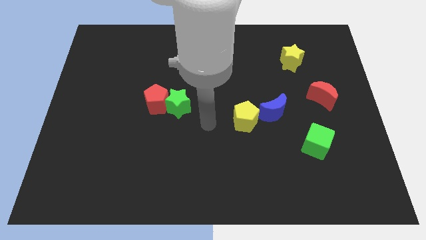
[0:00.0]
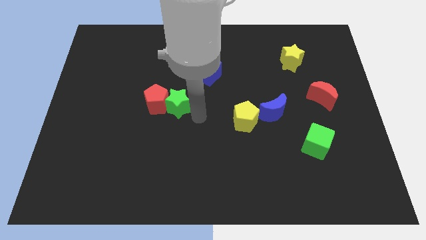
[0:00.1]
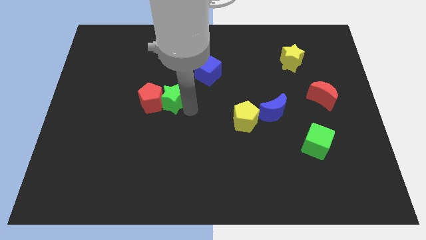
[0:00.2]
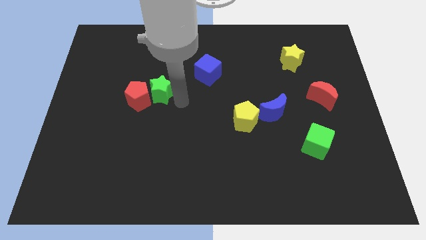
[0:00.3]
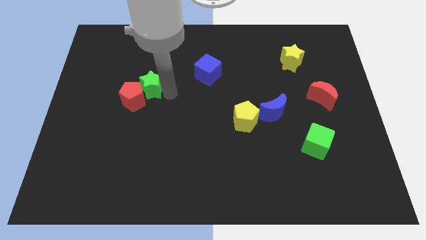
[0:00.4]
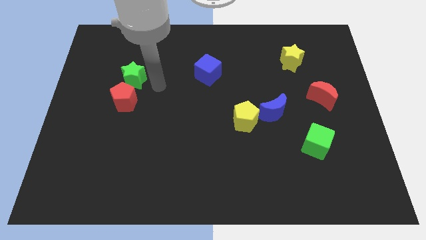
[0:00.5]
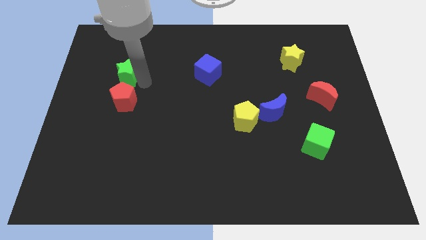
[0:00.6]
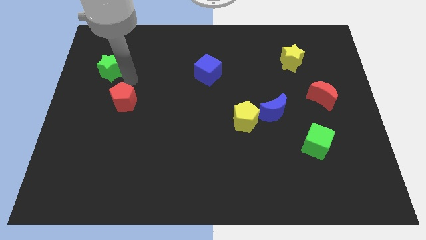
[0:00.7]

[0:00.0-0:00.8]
separate the red pentagon from the green star

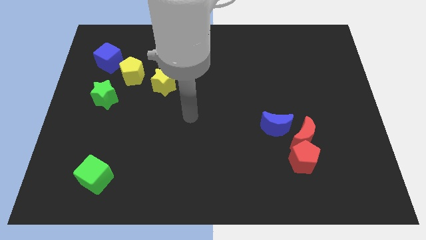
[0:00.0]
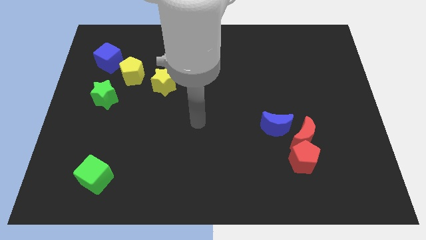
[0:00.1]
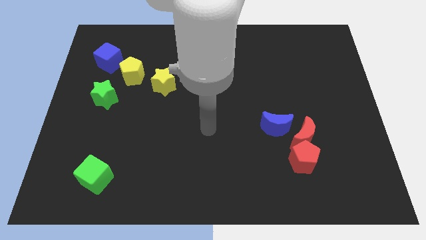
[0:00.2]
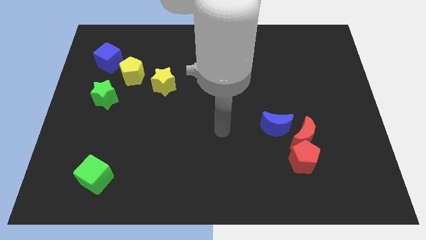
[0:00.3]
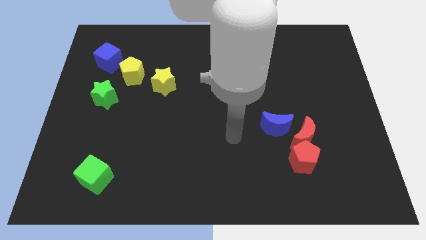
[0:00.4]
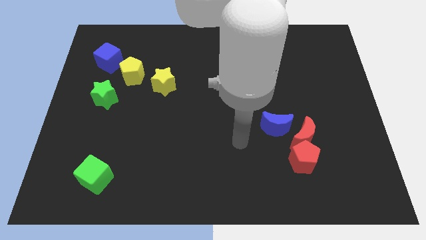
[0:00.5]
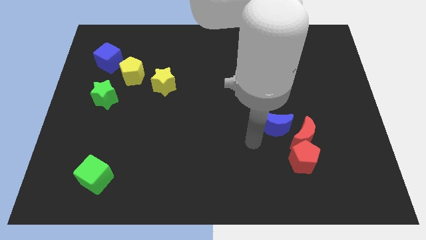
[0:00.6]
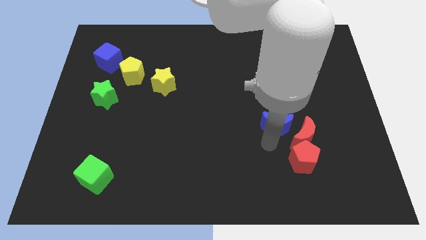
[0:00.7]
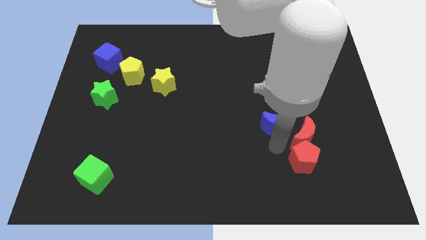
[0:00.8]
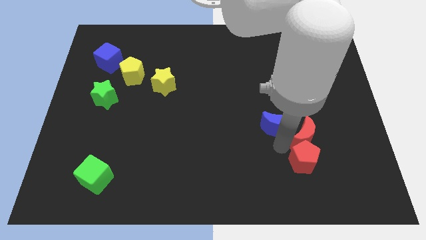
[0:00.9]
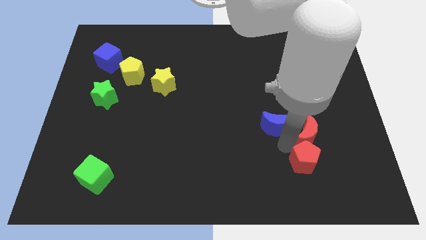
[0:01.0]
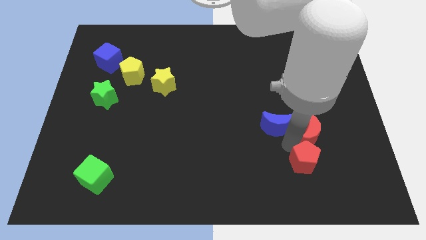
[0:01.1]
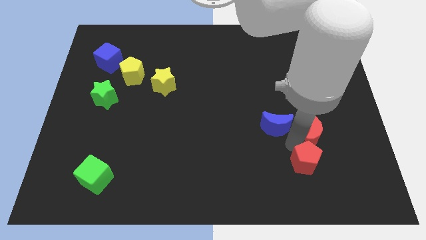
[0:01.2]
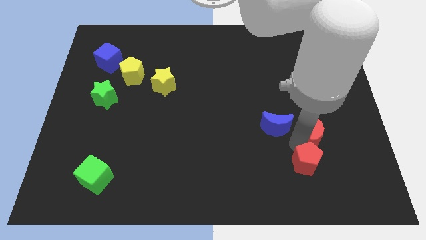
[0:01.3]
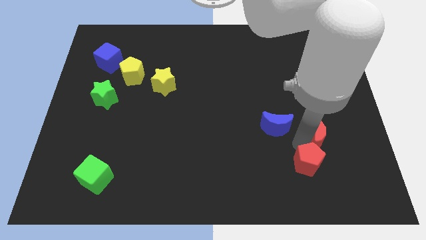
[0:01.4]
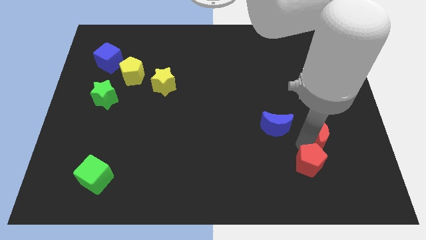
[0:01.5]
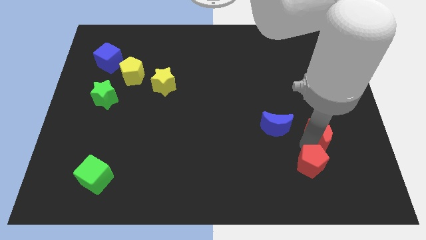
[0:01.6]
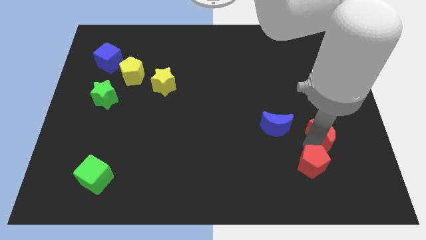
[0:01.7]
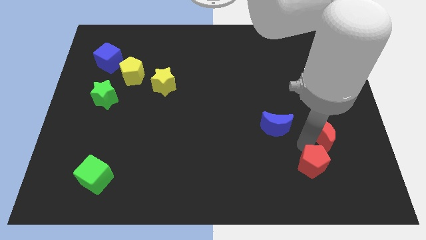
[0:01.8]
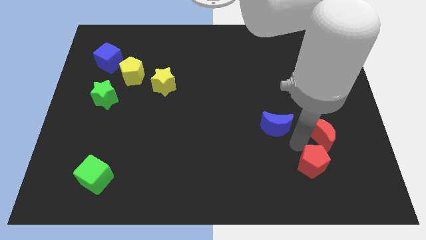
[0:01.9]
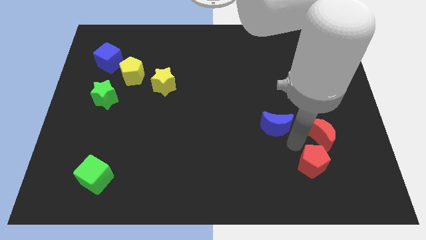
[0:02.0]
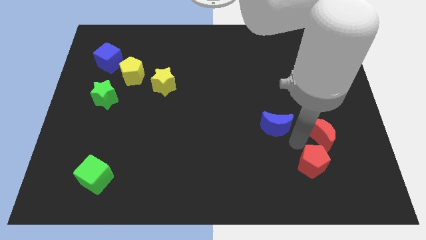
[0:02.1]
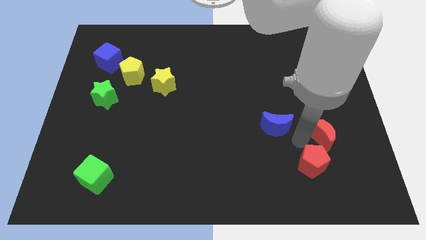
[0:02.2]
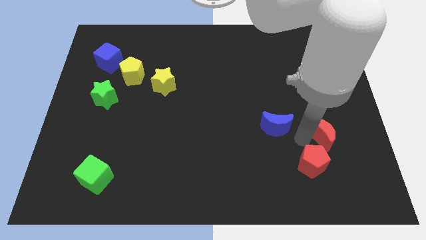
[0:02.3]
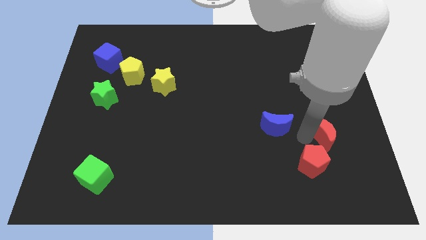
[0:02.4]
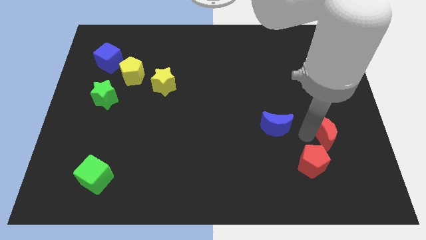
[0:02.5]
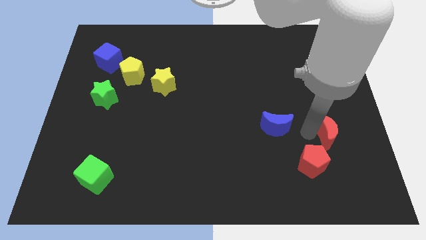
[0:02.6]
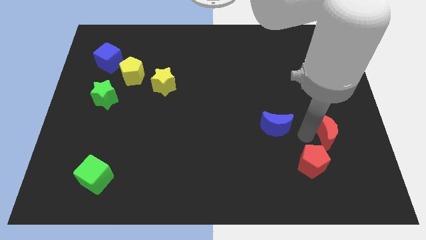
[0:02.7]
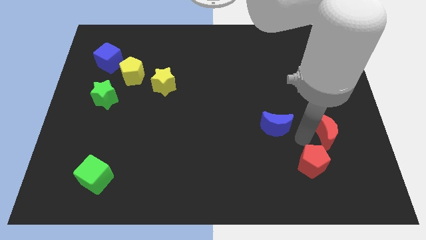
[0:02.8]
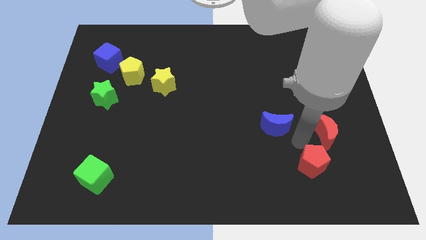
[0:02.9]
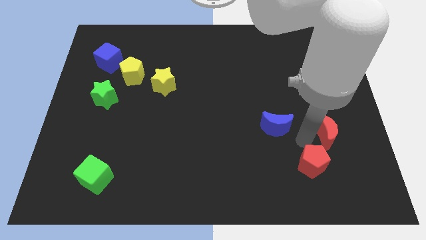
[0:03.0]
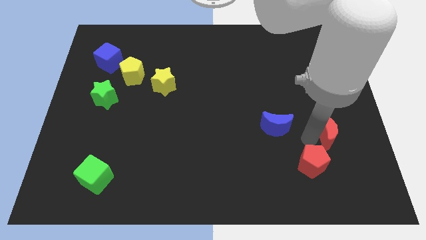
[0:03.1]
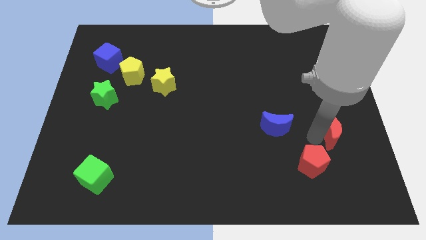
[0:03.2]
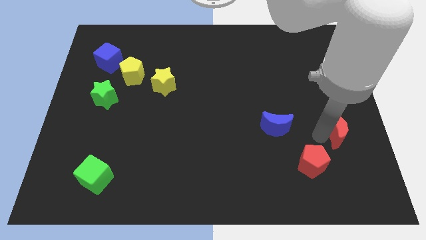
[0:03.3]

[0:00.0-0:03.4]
pull the red moon apart from the red pentagon and blue moon

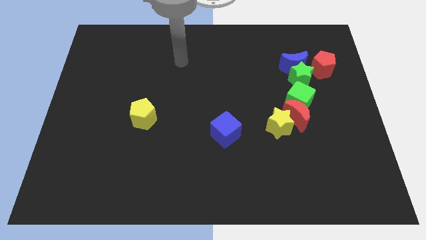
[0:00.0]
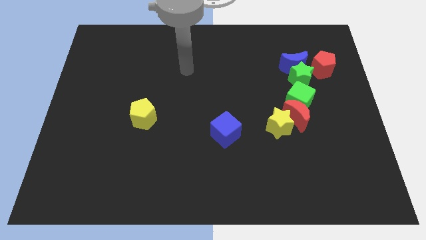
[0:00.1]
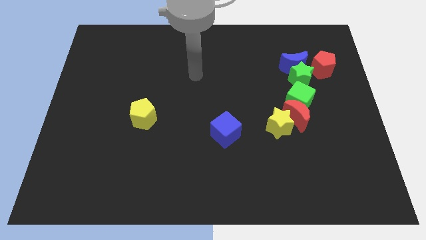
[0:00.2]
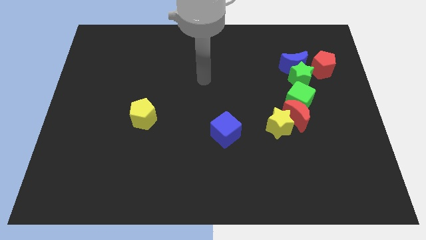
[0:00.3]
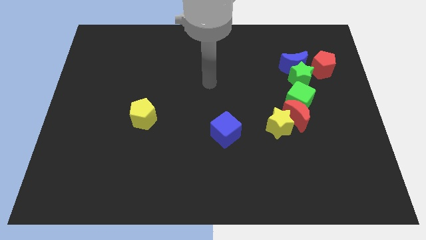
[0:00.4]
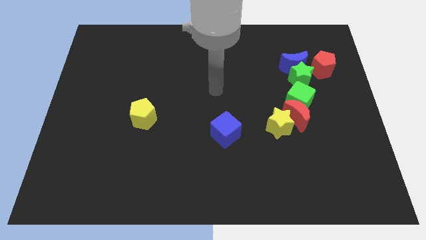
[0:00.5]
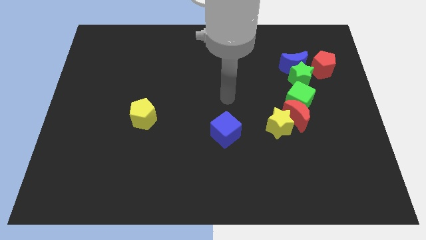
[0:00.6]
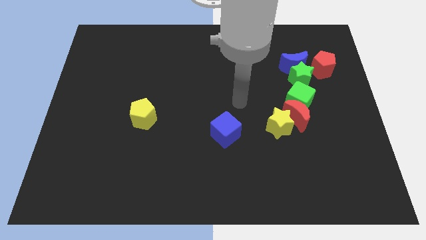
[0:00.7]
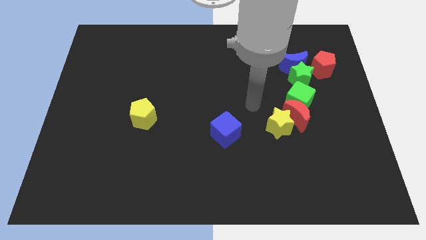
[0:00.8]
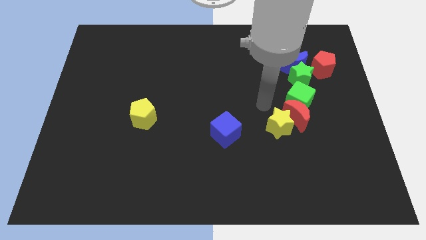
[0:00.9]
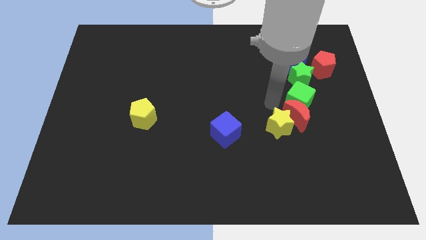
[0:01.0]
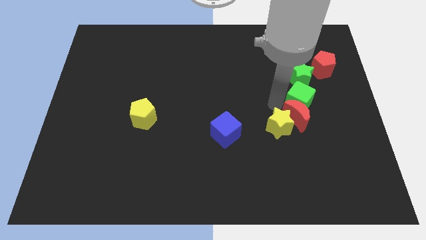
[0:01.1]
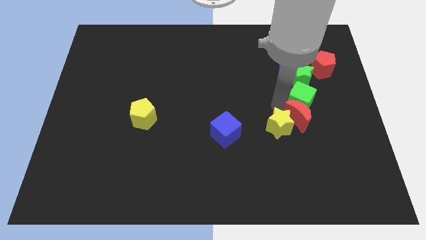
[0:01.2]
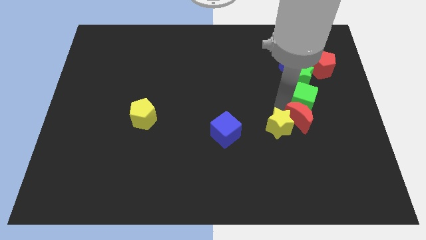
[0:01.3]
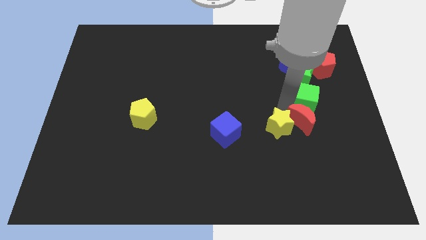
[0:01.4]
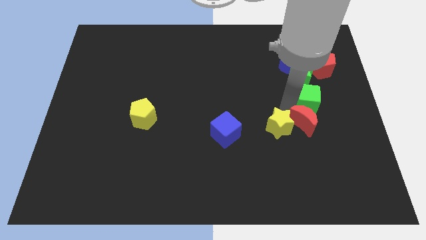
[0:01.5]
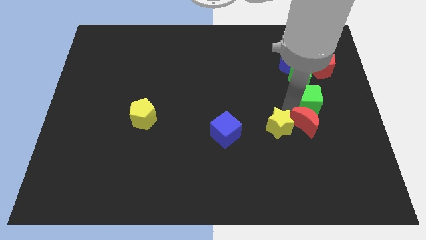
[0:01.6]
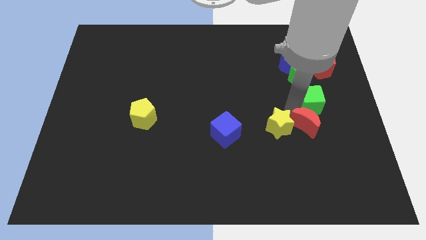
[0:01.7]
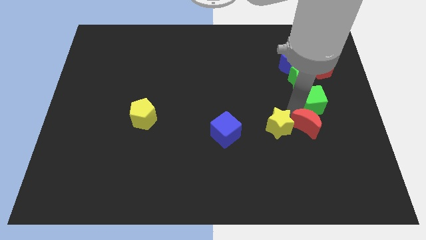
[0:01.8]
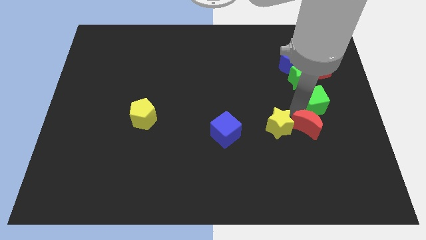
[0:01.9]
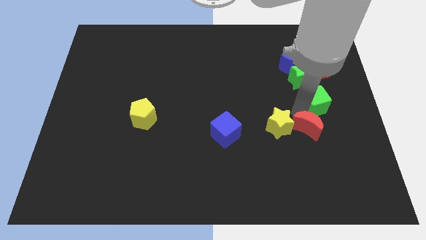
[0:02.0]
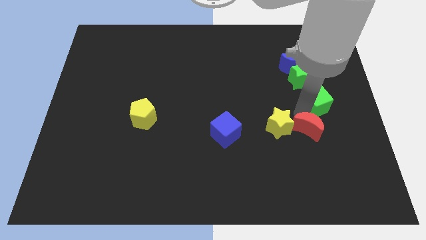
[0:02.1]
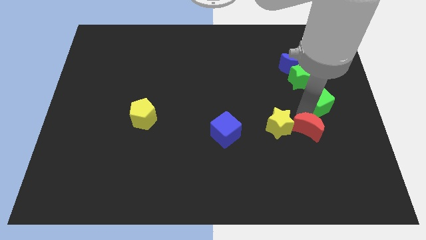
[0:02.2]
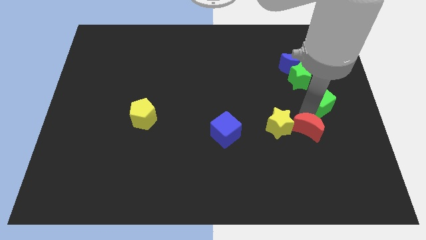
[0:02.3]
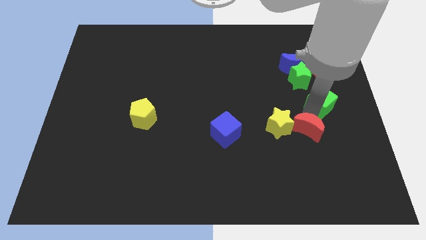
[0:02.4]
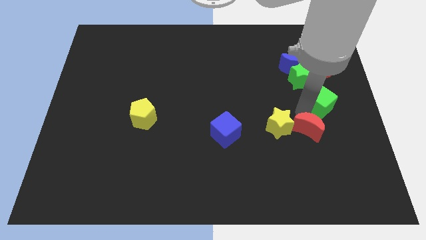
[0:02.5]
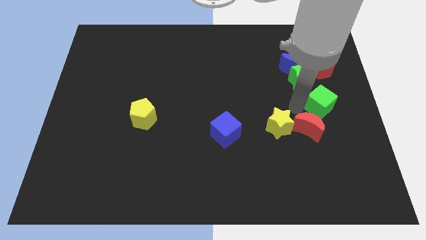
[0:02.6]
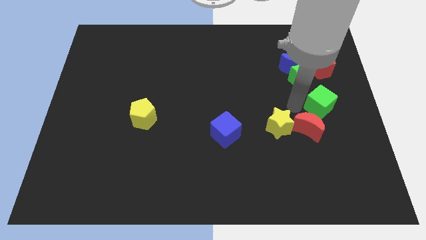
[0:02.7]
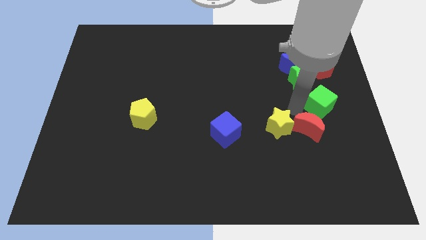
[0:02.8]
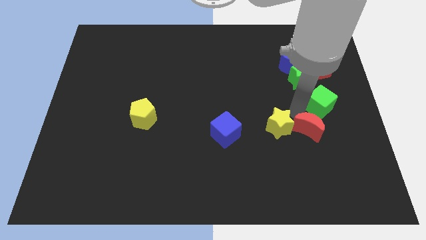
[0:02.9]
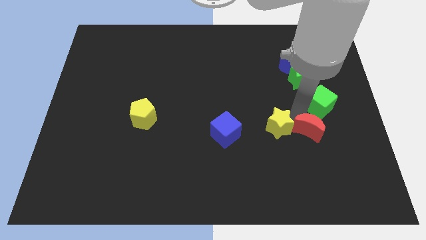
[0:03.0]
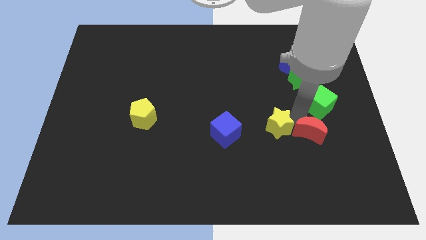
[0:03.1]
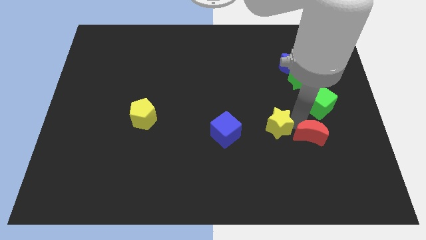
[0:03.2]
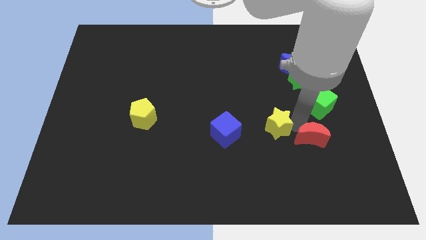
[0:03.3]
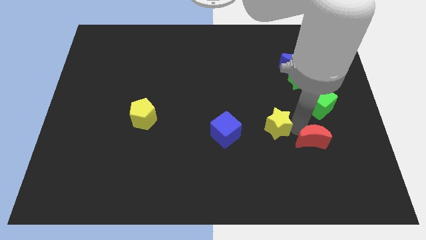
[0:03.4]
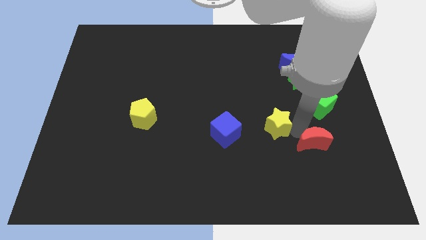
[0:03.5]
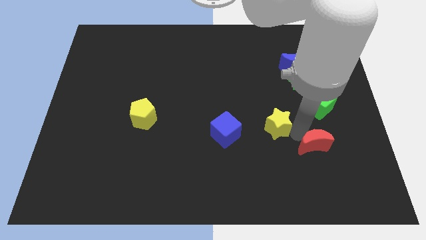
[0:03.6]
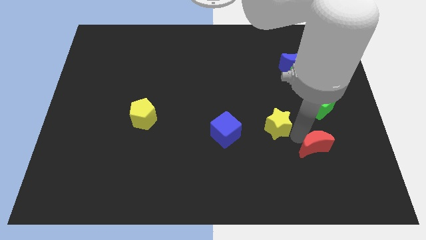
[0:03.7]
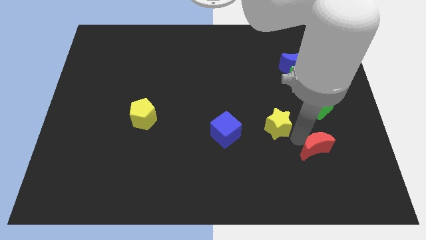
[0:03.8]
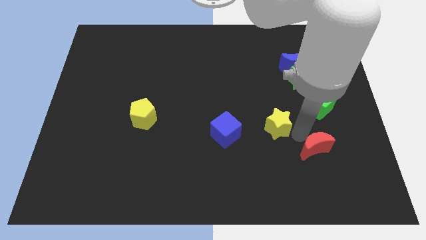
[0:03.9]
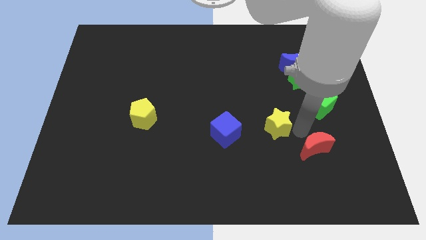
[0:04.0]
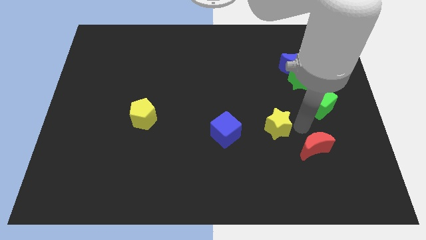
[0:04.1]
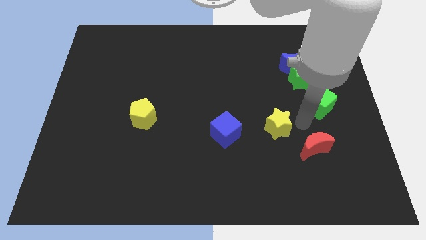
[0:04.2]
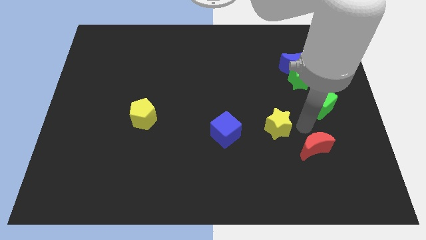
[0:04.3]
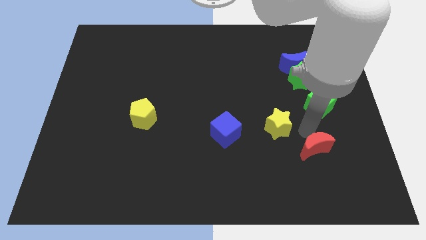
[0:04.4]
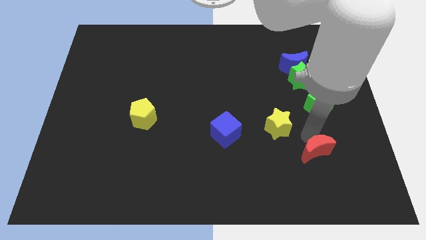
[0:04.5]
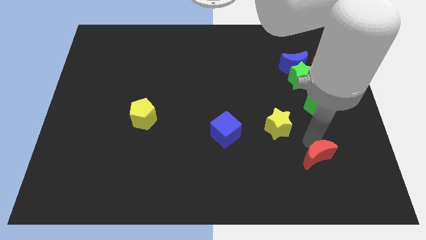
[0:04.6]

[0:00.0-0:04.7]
separate the red moon from the yellow star and green cube

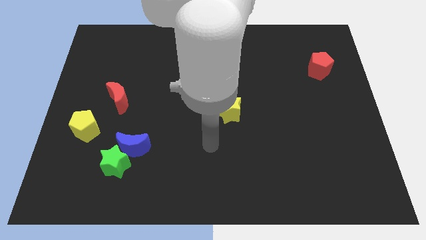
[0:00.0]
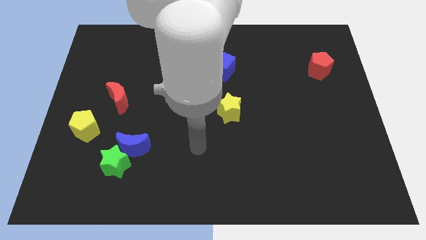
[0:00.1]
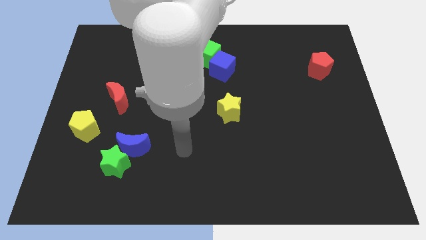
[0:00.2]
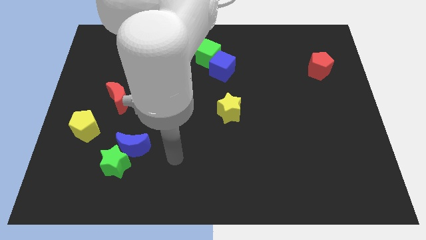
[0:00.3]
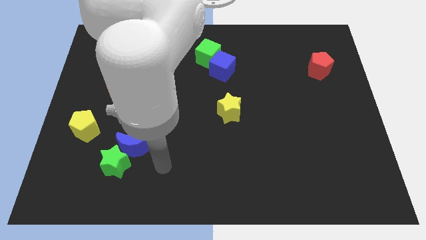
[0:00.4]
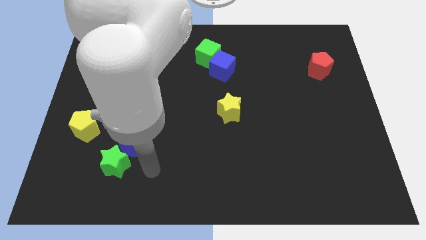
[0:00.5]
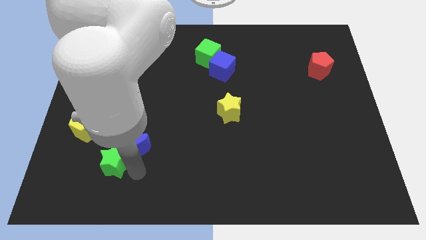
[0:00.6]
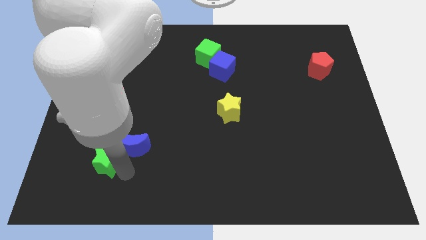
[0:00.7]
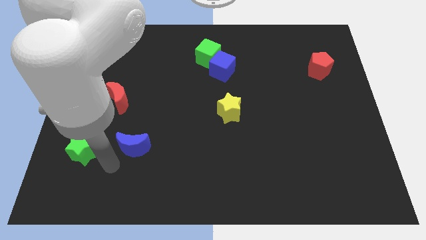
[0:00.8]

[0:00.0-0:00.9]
pull the blue moon apart from the green star
